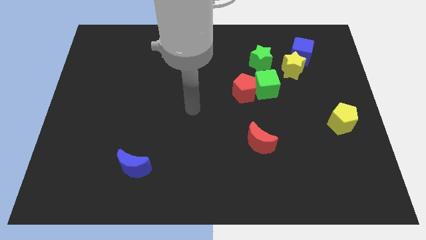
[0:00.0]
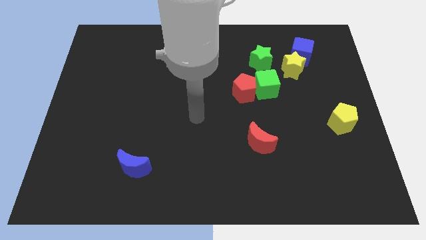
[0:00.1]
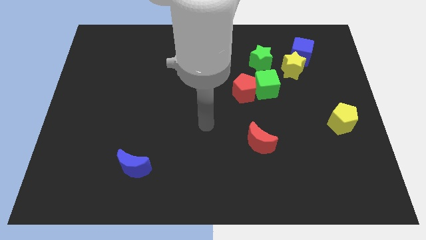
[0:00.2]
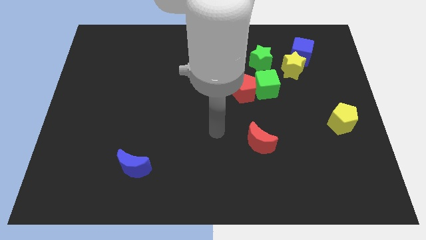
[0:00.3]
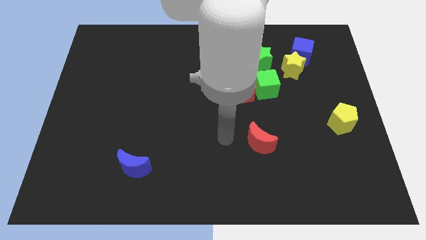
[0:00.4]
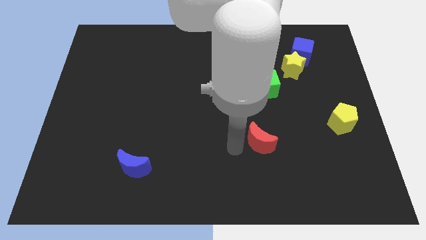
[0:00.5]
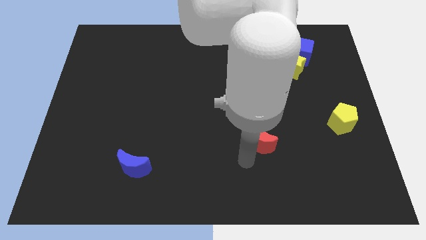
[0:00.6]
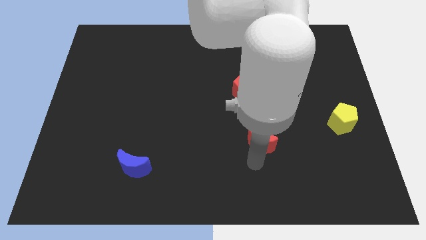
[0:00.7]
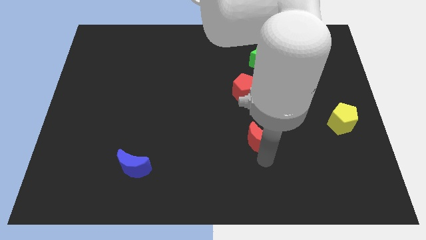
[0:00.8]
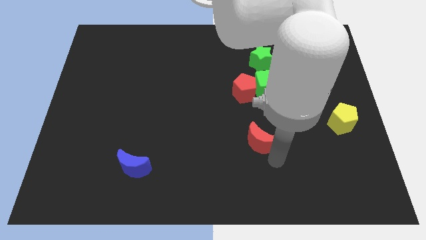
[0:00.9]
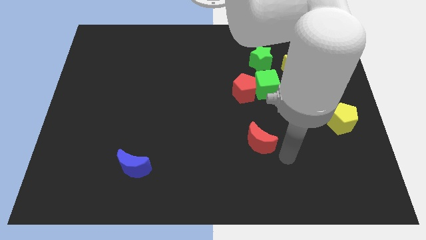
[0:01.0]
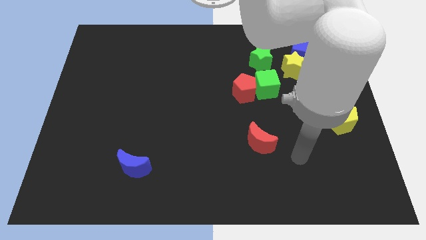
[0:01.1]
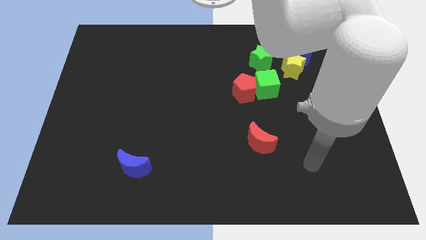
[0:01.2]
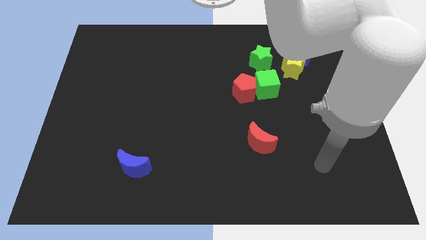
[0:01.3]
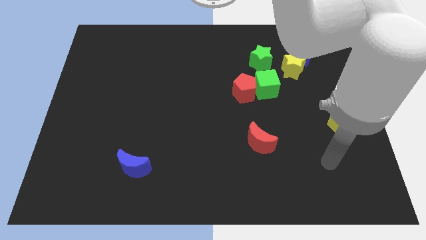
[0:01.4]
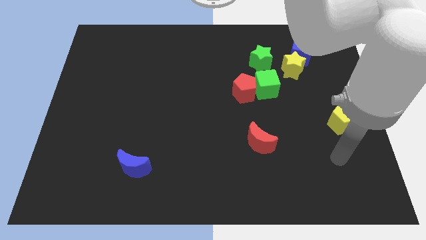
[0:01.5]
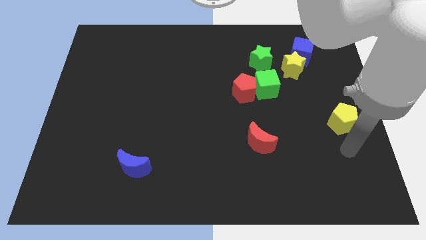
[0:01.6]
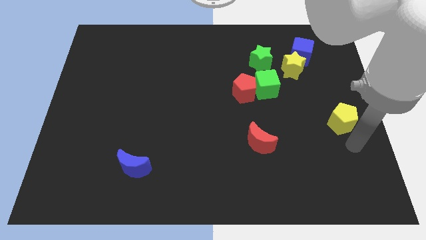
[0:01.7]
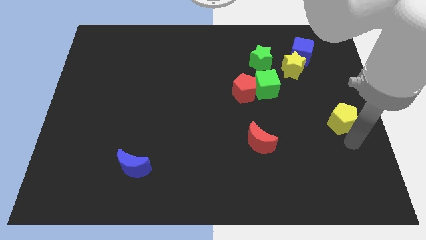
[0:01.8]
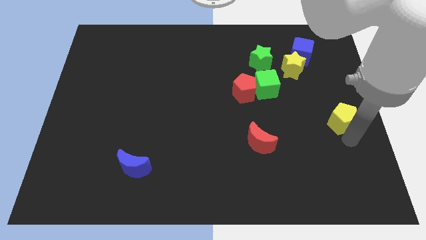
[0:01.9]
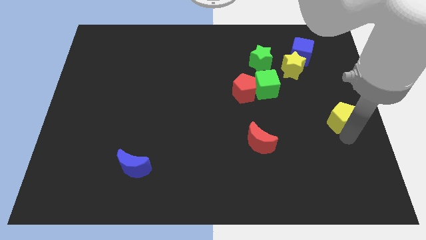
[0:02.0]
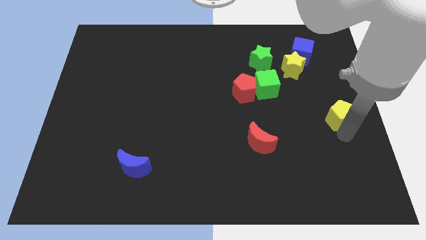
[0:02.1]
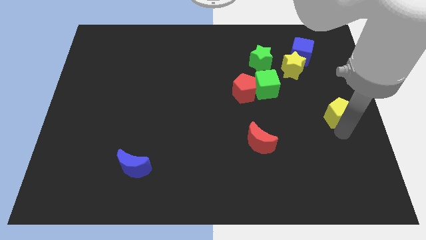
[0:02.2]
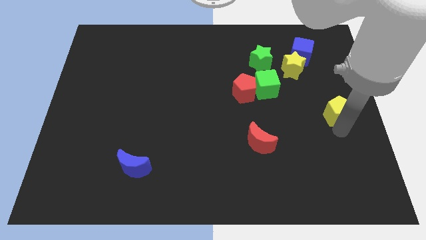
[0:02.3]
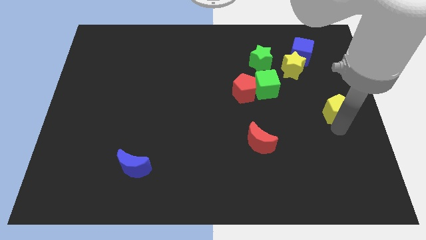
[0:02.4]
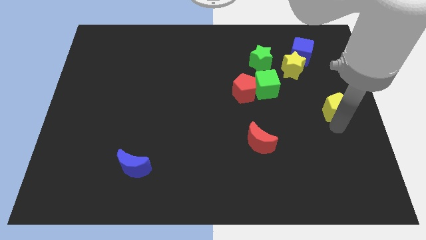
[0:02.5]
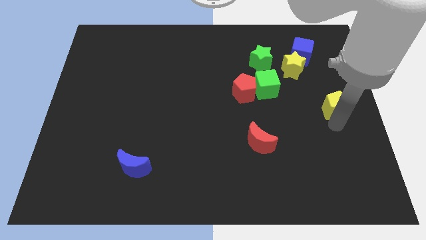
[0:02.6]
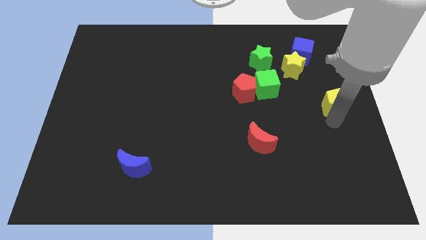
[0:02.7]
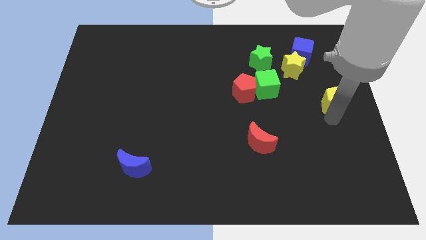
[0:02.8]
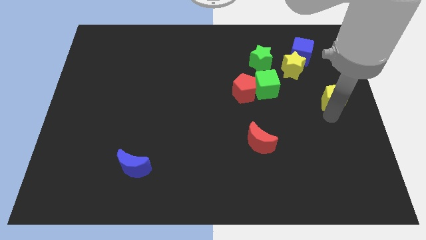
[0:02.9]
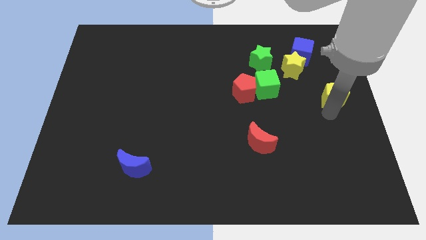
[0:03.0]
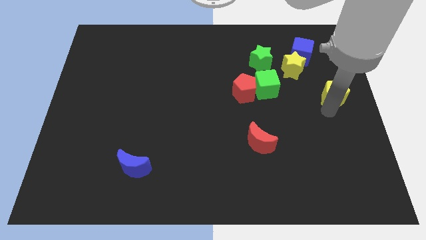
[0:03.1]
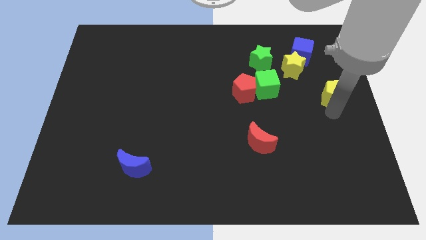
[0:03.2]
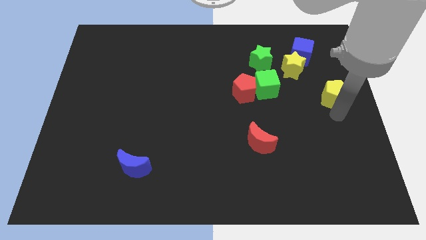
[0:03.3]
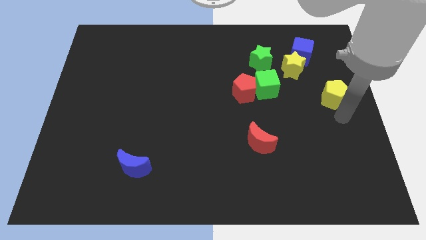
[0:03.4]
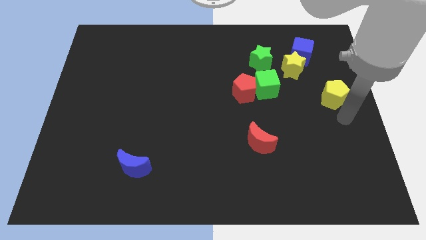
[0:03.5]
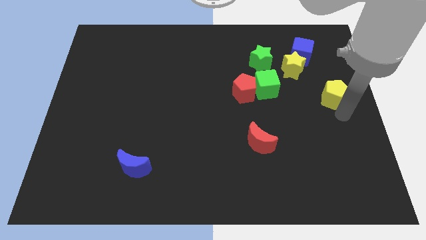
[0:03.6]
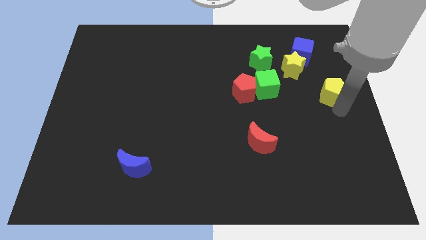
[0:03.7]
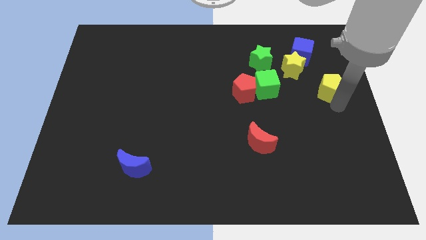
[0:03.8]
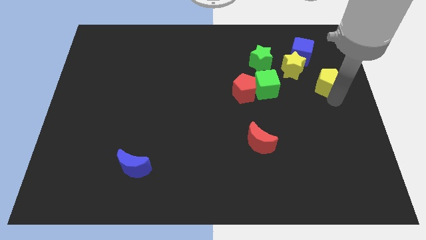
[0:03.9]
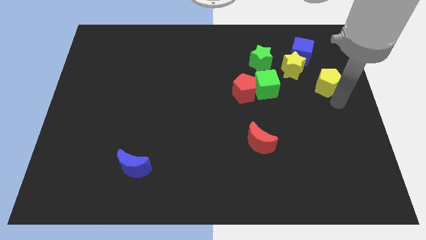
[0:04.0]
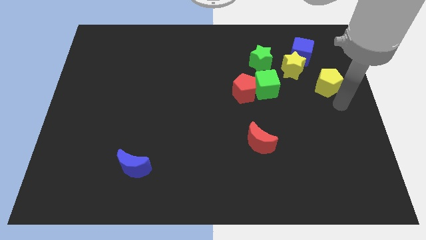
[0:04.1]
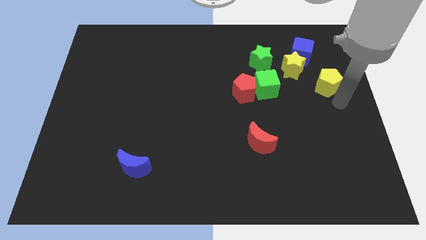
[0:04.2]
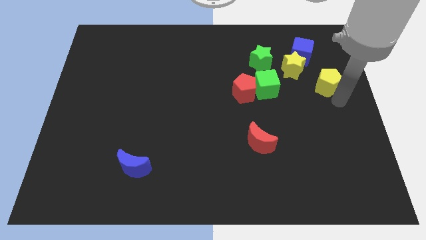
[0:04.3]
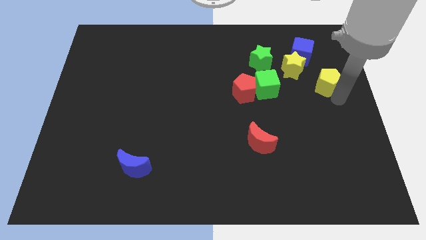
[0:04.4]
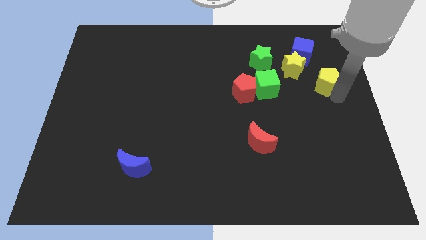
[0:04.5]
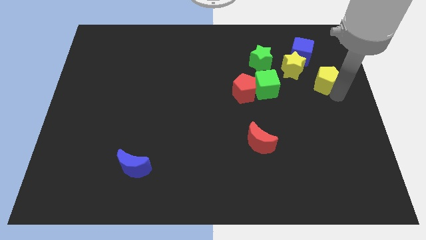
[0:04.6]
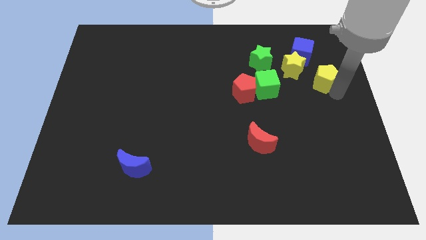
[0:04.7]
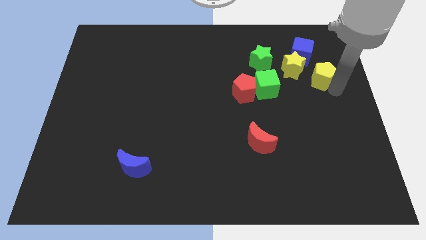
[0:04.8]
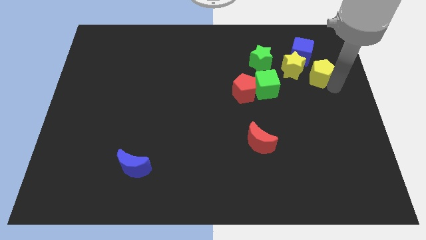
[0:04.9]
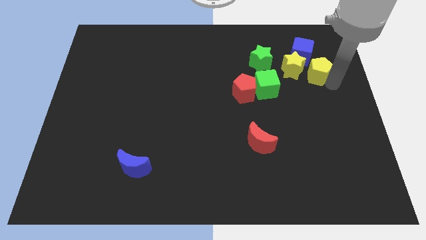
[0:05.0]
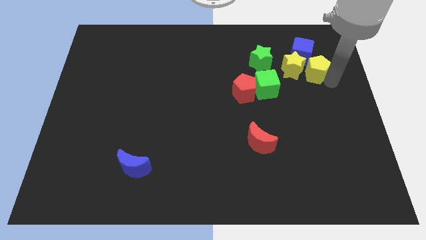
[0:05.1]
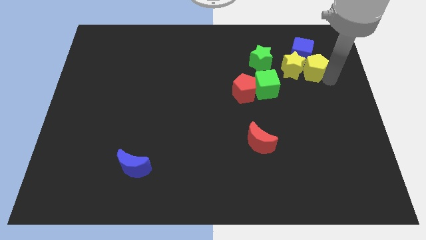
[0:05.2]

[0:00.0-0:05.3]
push the yellow pentagon to the blue cube

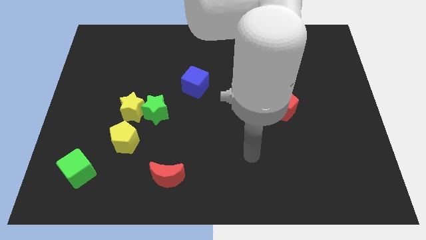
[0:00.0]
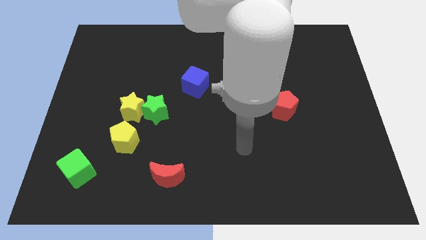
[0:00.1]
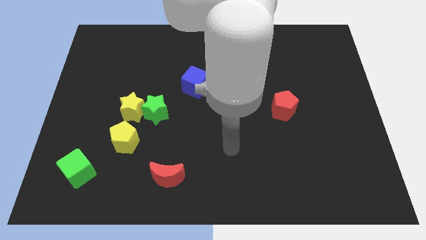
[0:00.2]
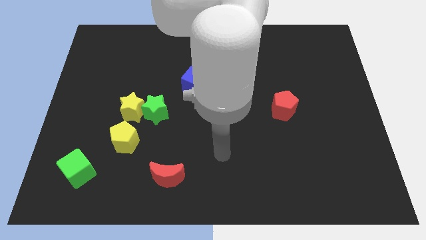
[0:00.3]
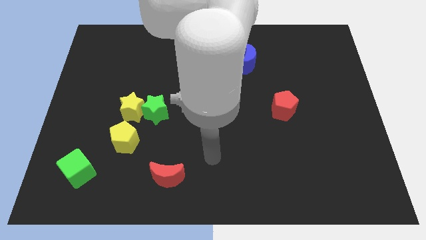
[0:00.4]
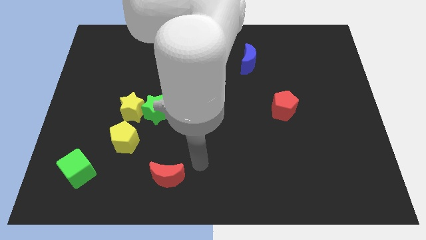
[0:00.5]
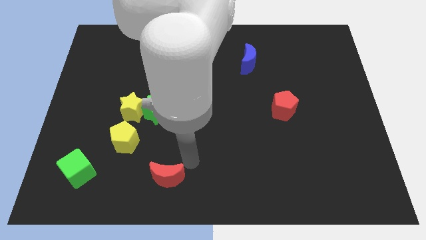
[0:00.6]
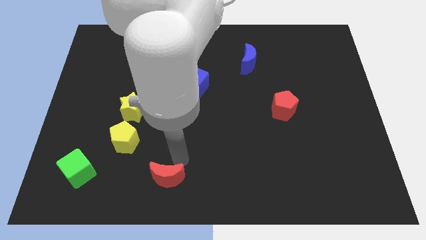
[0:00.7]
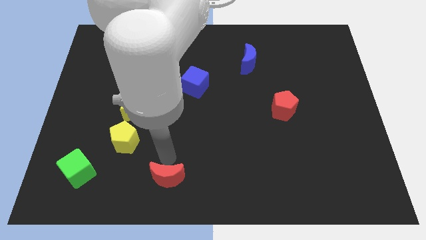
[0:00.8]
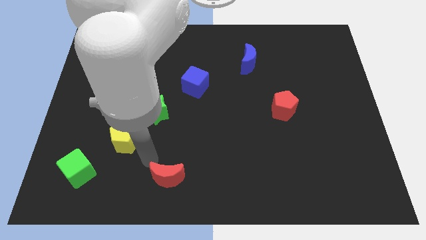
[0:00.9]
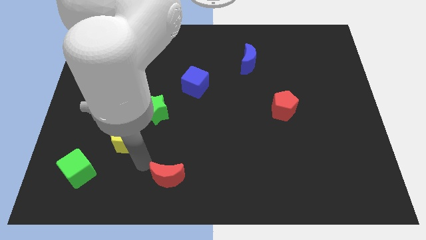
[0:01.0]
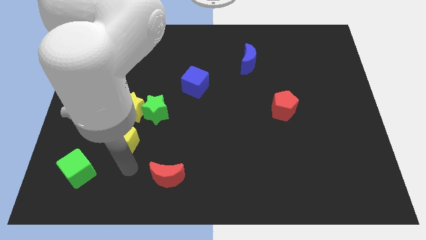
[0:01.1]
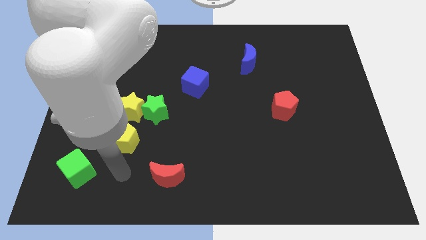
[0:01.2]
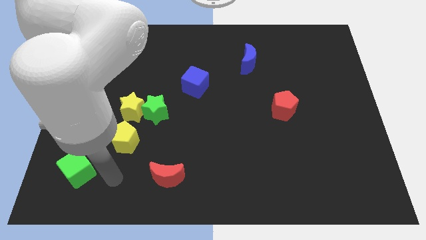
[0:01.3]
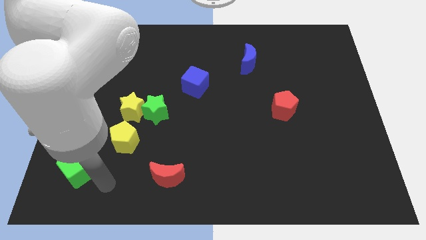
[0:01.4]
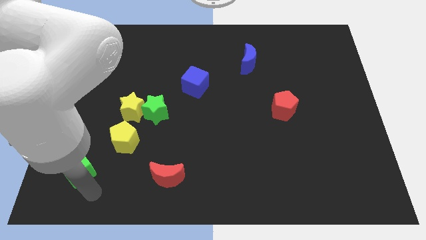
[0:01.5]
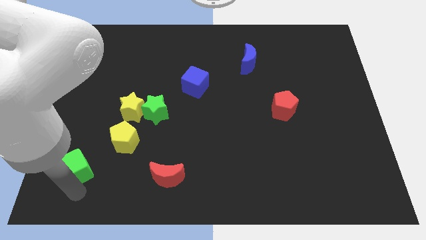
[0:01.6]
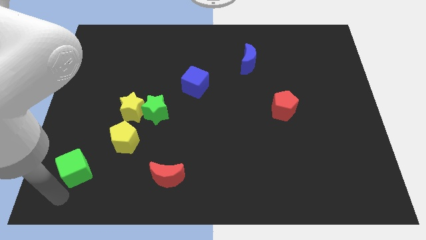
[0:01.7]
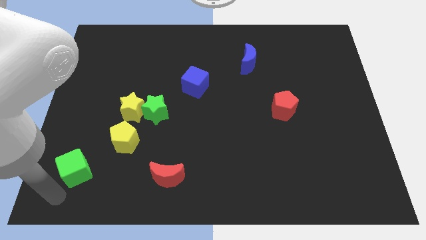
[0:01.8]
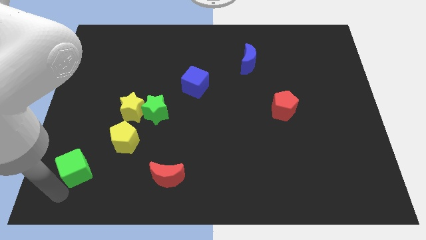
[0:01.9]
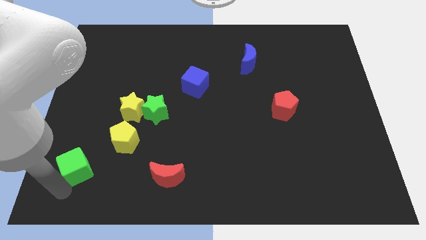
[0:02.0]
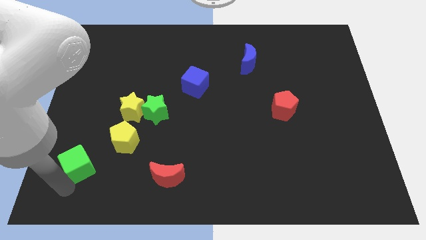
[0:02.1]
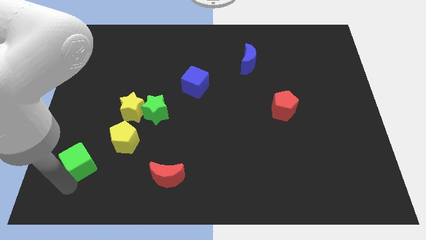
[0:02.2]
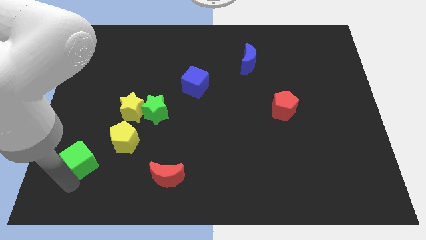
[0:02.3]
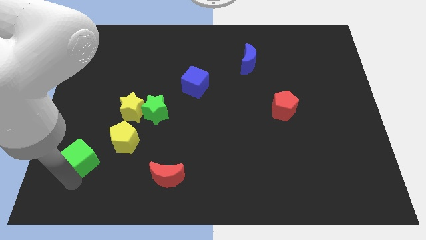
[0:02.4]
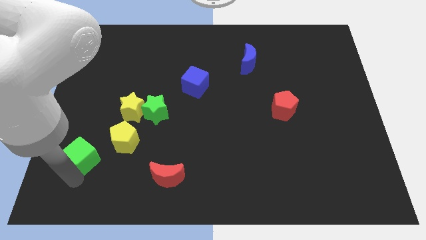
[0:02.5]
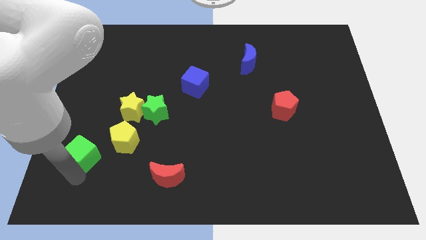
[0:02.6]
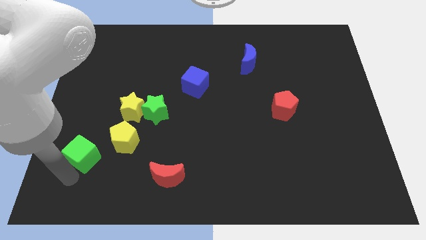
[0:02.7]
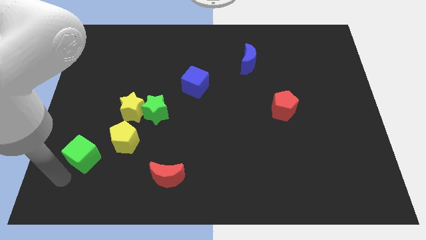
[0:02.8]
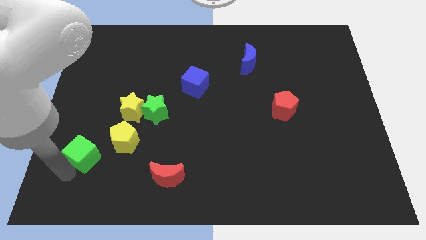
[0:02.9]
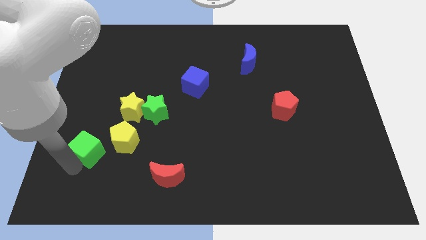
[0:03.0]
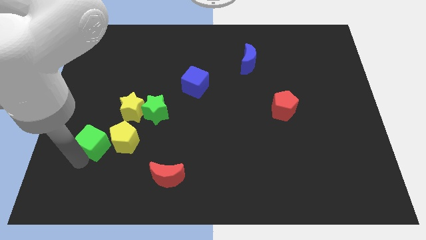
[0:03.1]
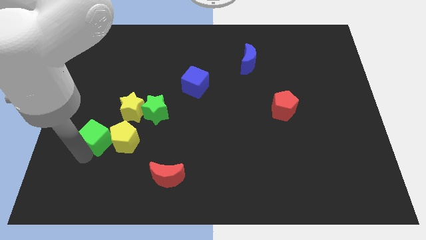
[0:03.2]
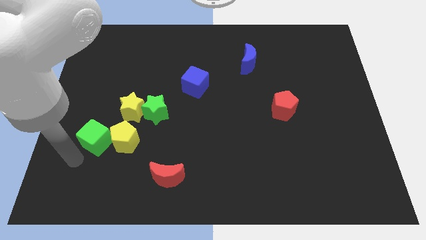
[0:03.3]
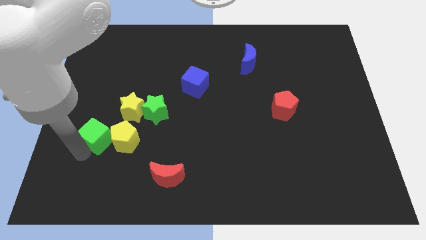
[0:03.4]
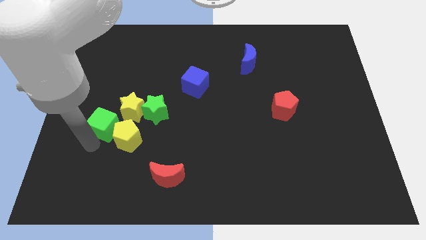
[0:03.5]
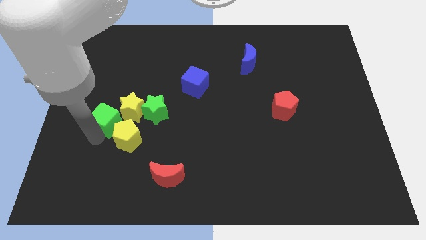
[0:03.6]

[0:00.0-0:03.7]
slide the green cube close to the yellow star
